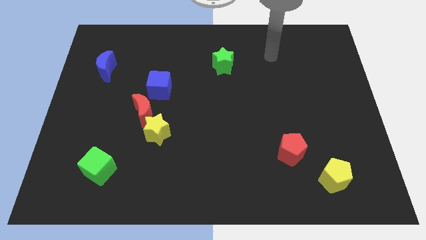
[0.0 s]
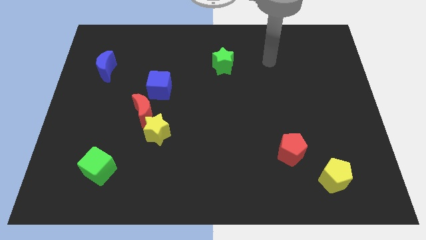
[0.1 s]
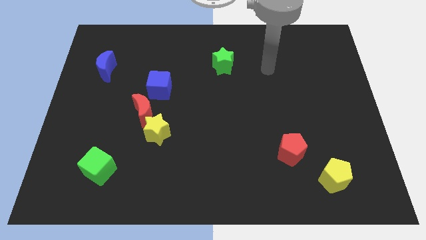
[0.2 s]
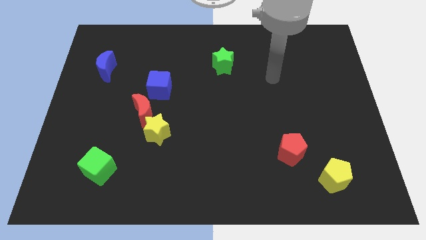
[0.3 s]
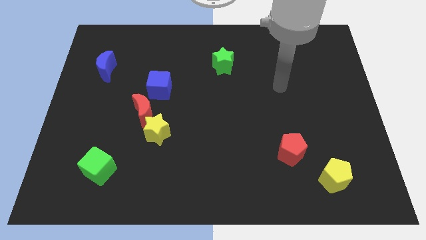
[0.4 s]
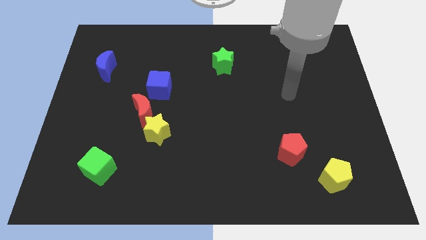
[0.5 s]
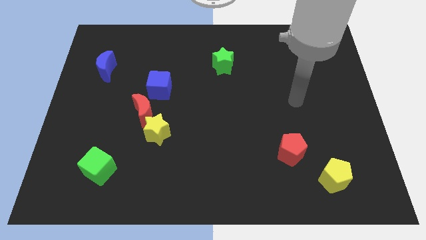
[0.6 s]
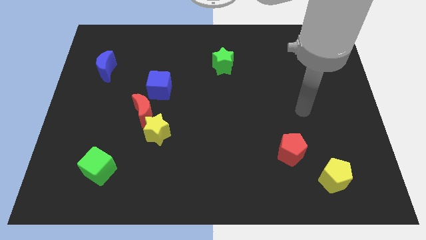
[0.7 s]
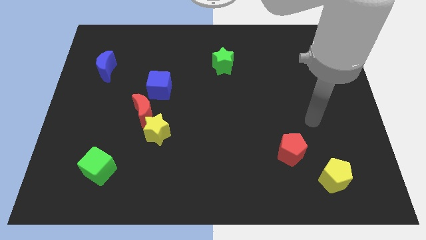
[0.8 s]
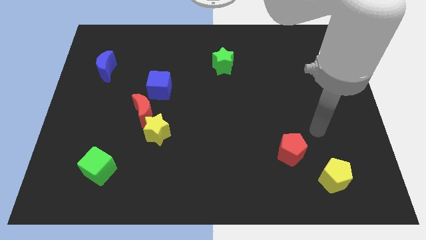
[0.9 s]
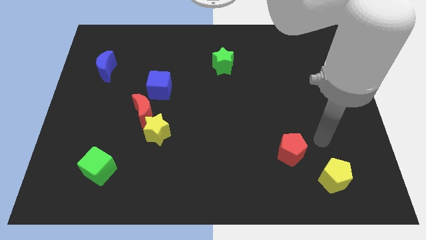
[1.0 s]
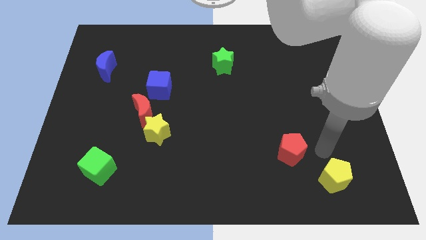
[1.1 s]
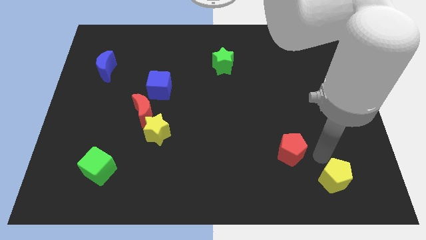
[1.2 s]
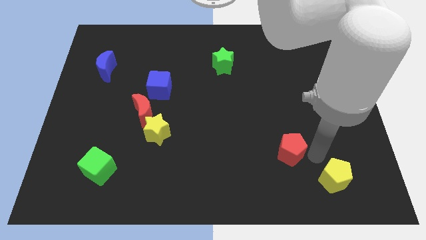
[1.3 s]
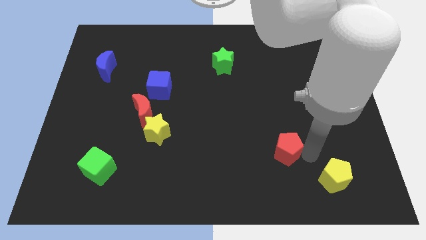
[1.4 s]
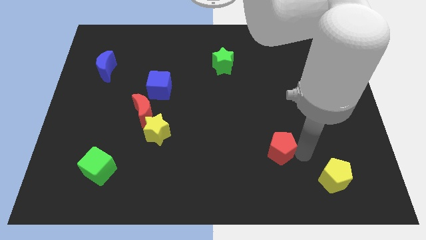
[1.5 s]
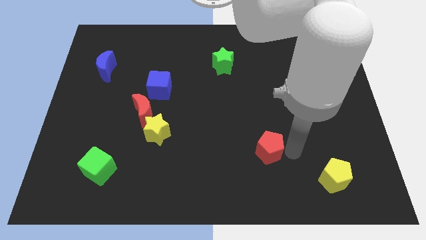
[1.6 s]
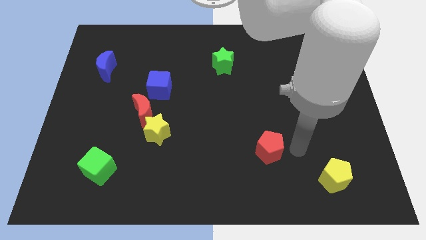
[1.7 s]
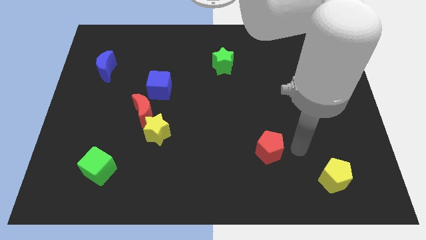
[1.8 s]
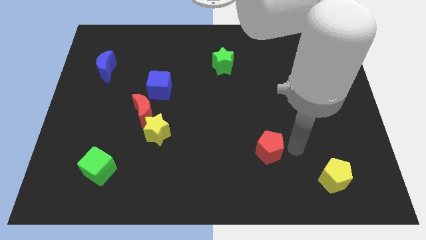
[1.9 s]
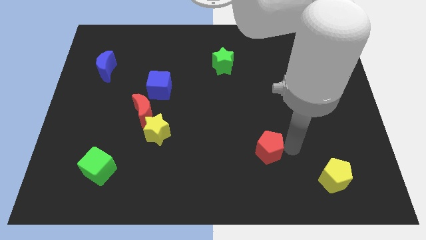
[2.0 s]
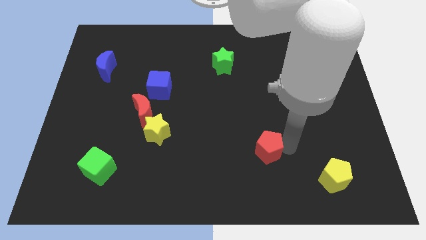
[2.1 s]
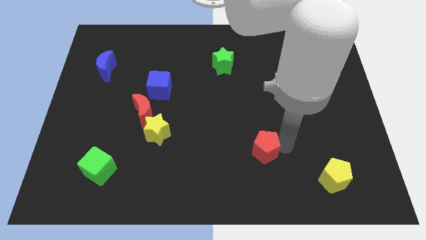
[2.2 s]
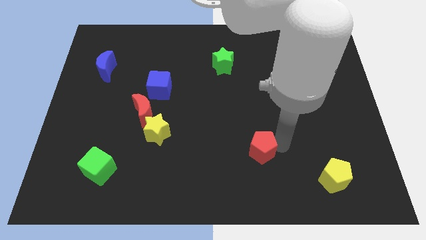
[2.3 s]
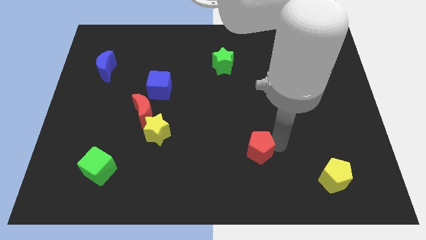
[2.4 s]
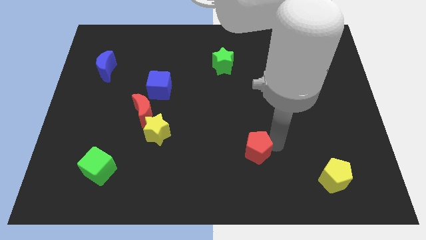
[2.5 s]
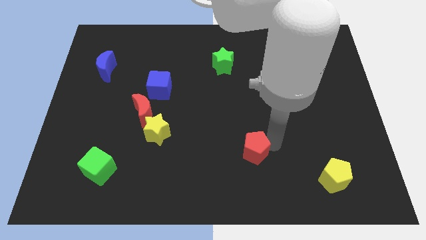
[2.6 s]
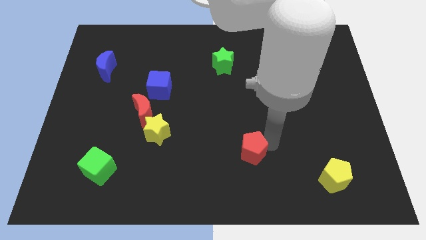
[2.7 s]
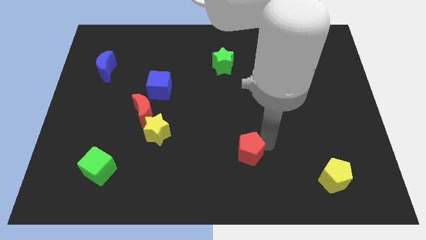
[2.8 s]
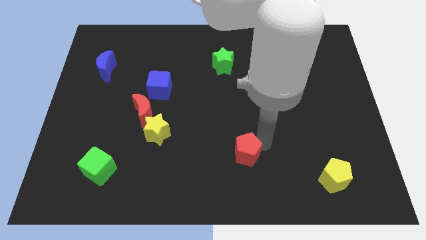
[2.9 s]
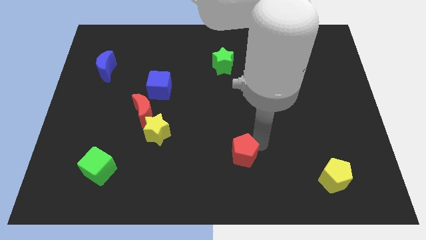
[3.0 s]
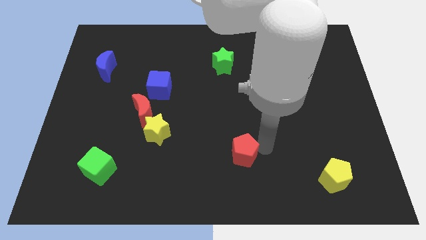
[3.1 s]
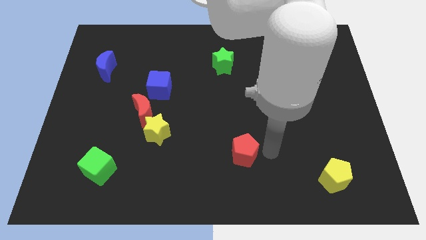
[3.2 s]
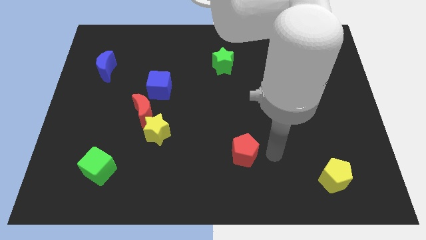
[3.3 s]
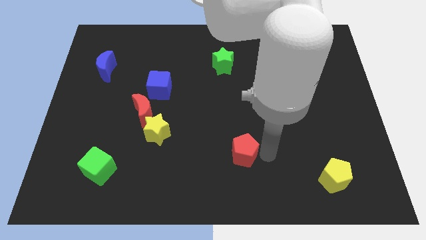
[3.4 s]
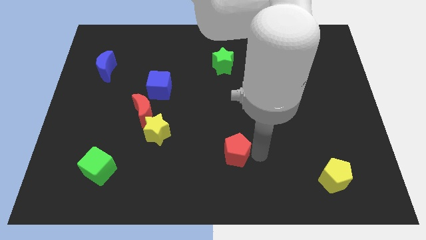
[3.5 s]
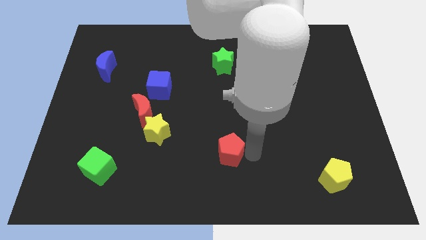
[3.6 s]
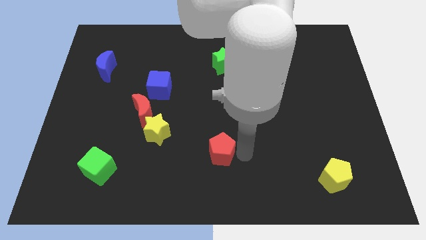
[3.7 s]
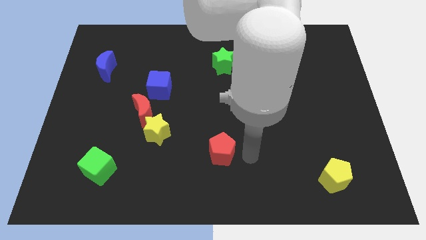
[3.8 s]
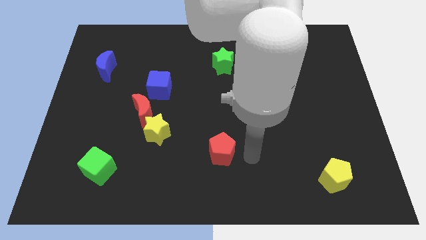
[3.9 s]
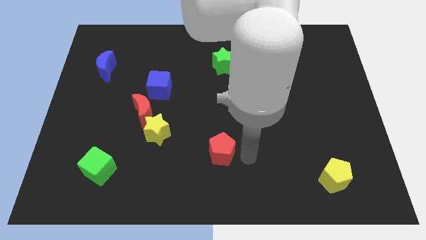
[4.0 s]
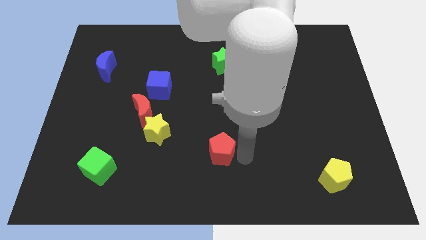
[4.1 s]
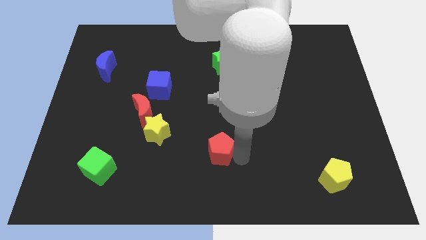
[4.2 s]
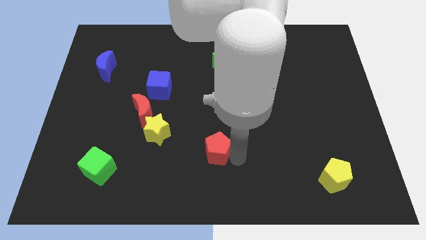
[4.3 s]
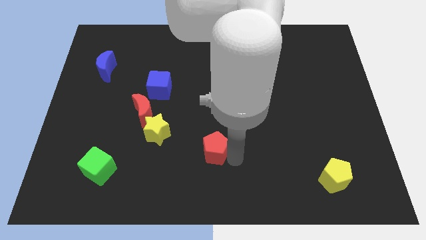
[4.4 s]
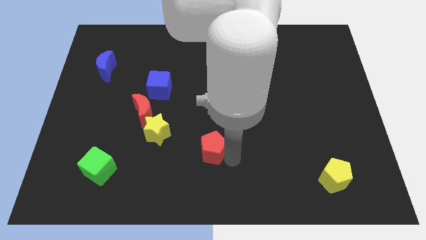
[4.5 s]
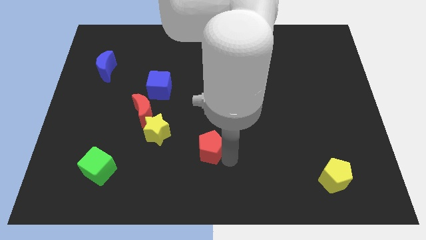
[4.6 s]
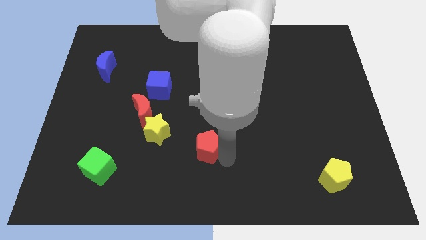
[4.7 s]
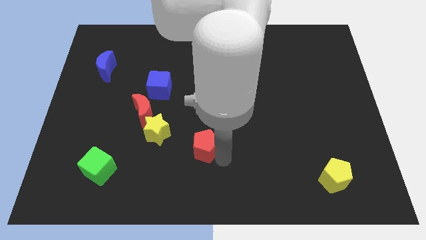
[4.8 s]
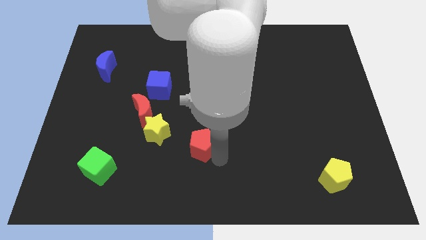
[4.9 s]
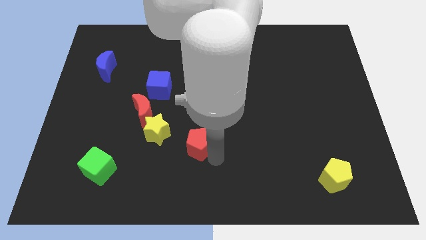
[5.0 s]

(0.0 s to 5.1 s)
slide the red pentagon to the left

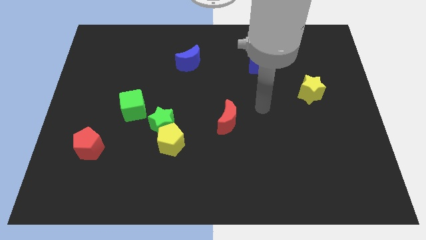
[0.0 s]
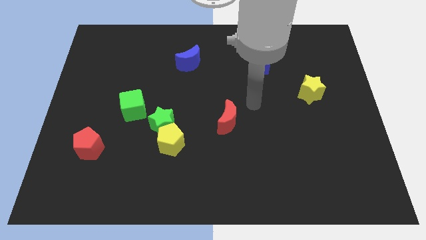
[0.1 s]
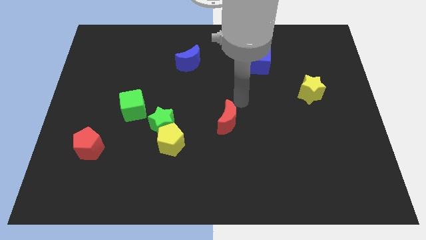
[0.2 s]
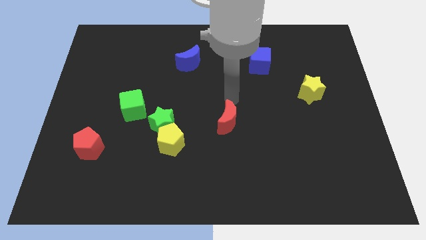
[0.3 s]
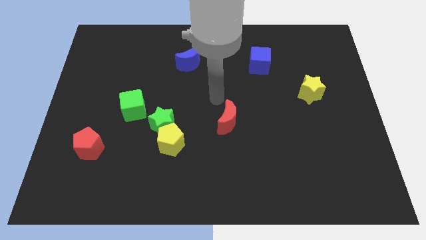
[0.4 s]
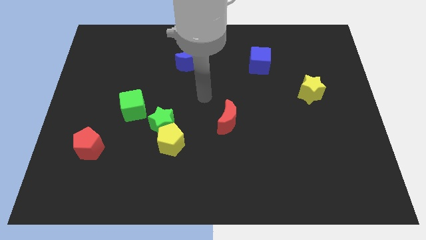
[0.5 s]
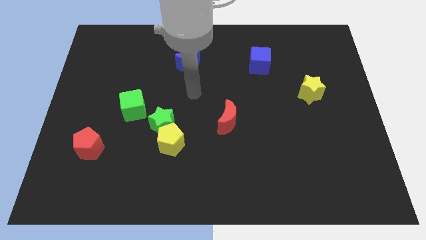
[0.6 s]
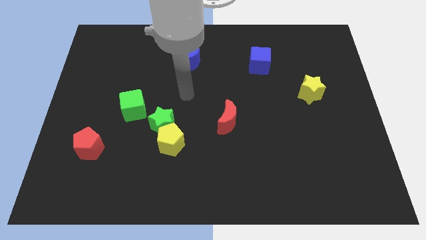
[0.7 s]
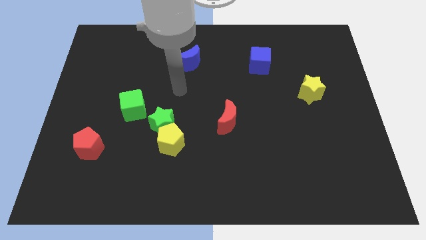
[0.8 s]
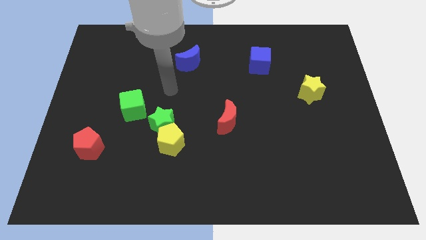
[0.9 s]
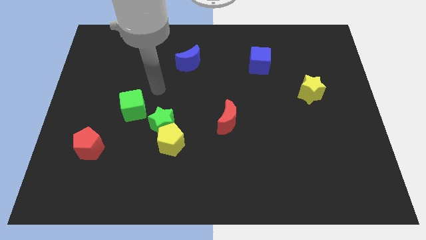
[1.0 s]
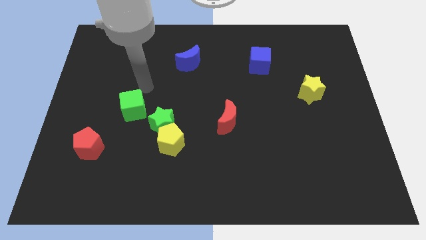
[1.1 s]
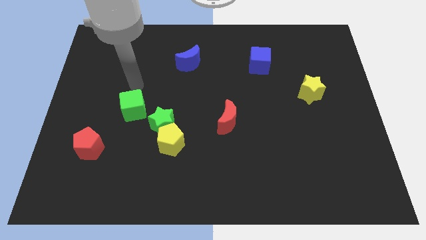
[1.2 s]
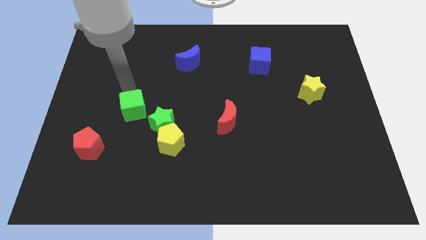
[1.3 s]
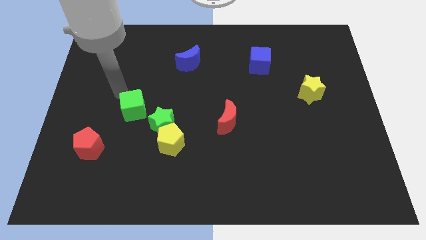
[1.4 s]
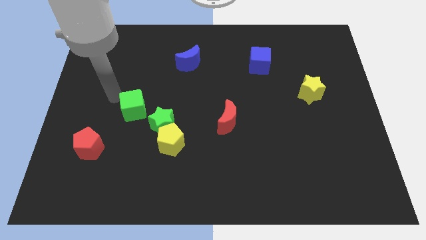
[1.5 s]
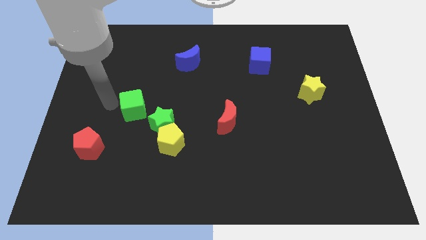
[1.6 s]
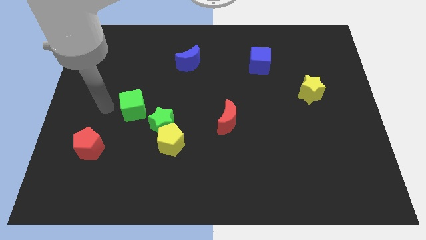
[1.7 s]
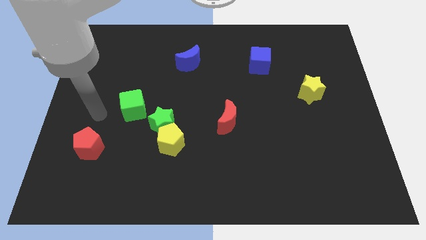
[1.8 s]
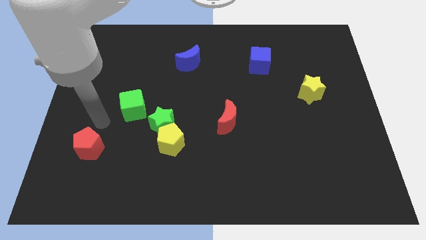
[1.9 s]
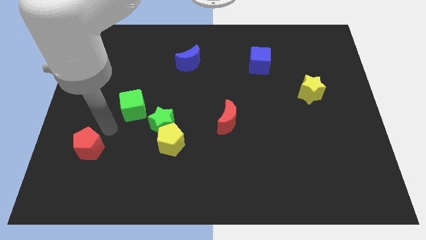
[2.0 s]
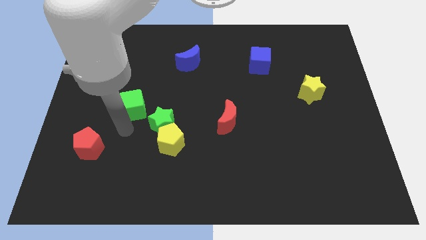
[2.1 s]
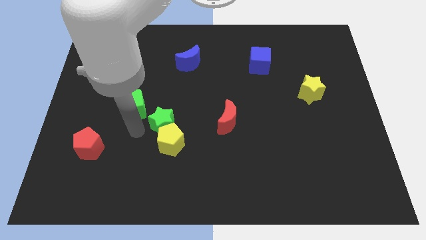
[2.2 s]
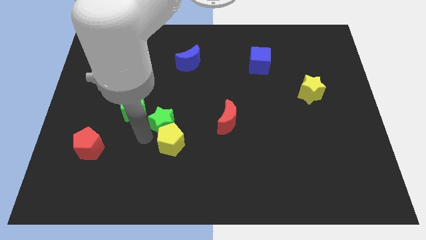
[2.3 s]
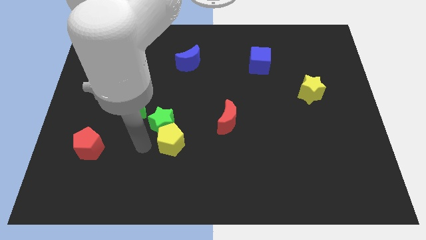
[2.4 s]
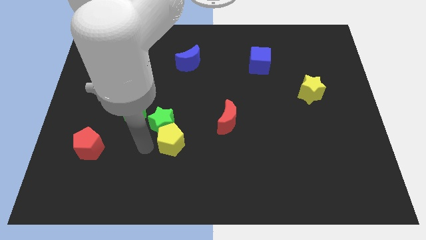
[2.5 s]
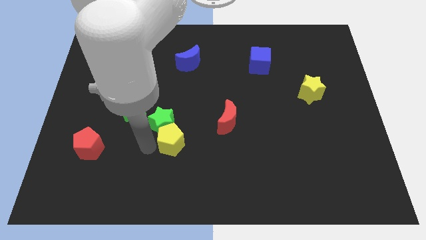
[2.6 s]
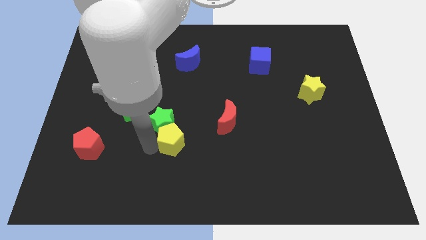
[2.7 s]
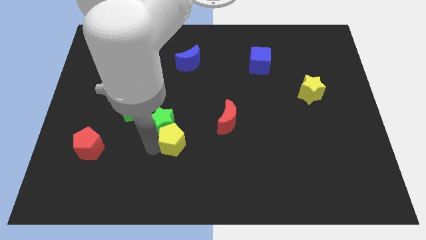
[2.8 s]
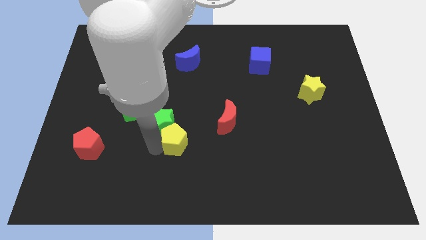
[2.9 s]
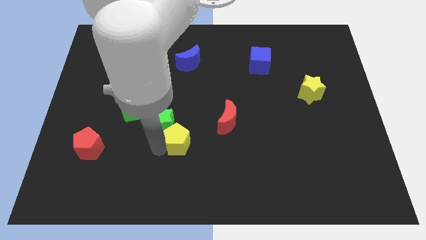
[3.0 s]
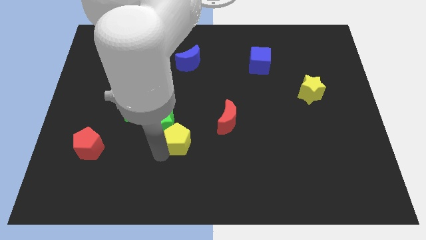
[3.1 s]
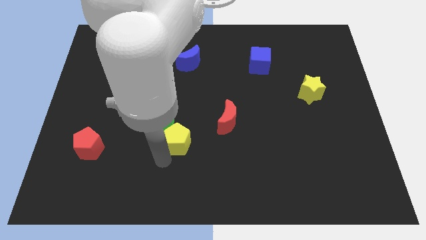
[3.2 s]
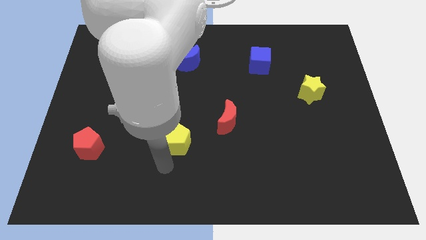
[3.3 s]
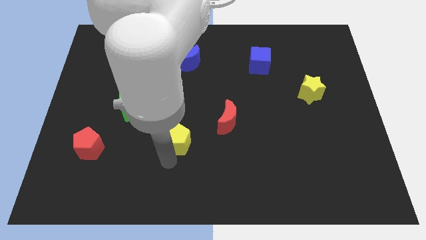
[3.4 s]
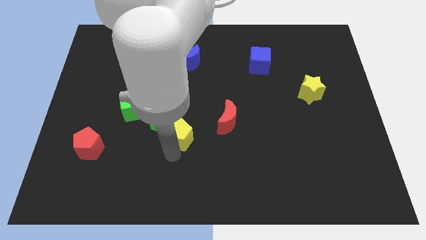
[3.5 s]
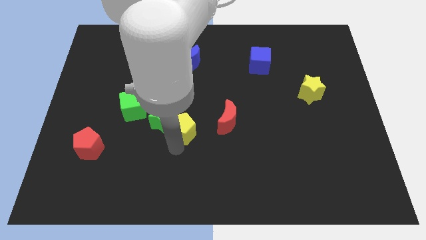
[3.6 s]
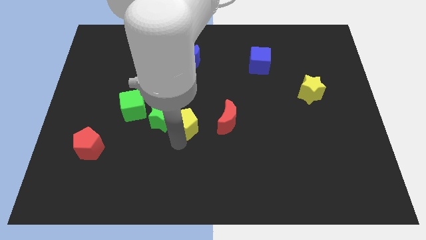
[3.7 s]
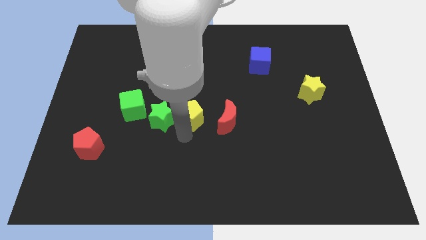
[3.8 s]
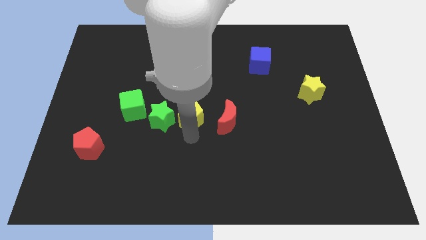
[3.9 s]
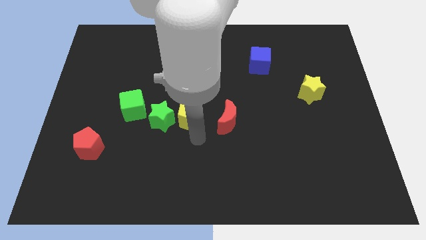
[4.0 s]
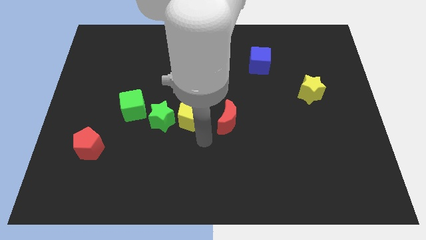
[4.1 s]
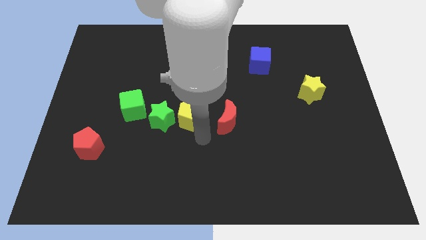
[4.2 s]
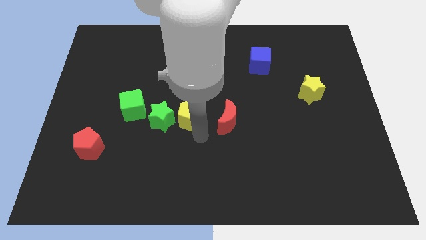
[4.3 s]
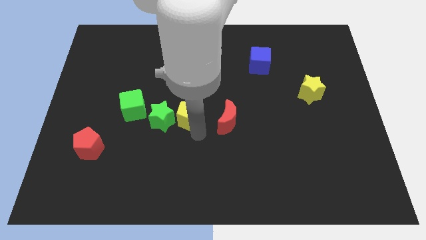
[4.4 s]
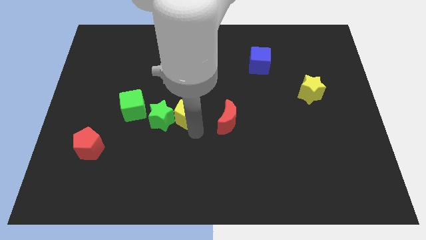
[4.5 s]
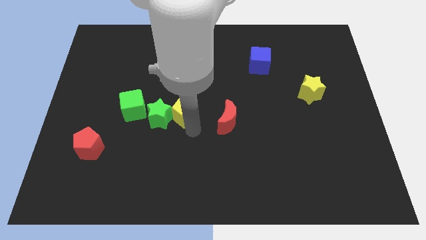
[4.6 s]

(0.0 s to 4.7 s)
push the yellow pentagon upwards a little bit
